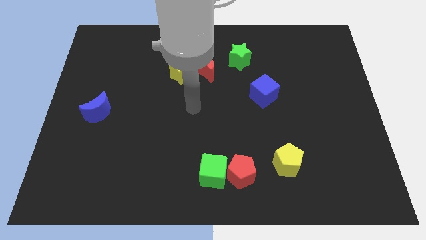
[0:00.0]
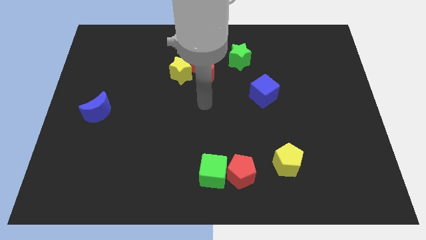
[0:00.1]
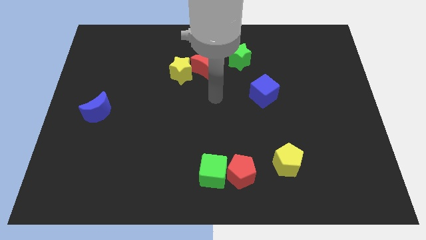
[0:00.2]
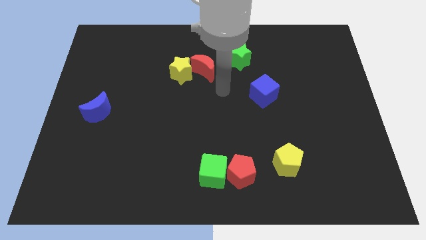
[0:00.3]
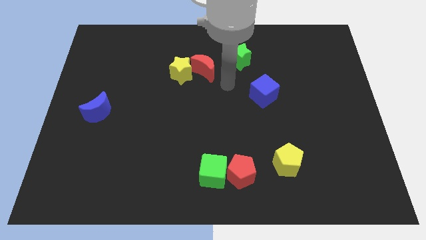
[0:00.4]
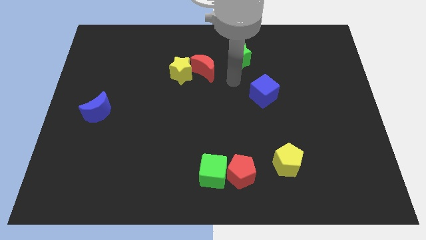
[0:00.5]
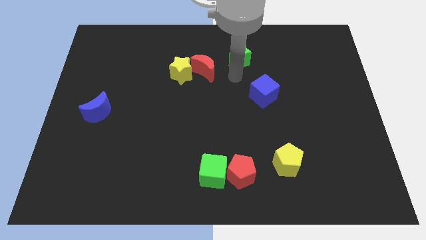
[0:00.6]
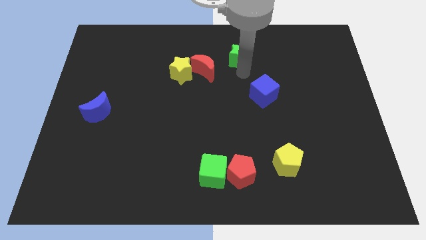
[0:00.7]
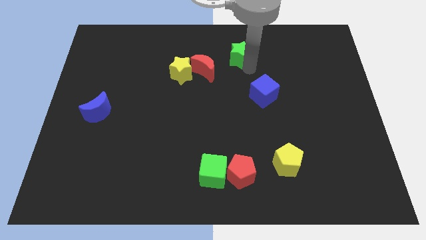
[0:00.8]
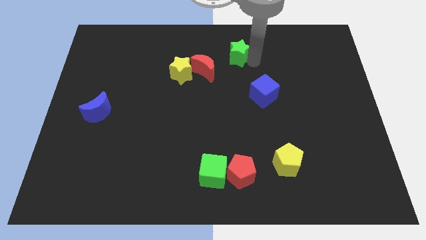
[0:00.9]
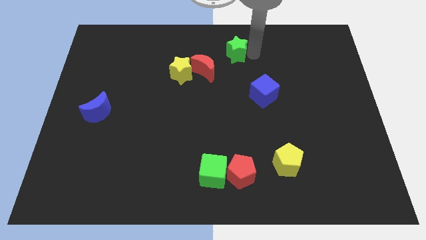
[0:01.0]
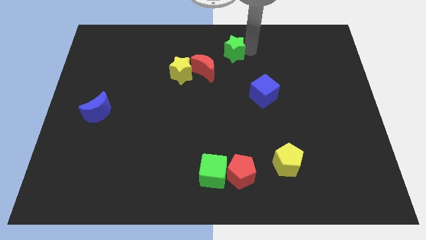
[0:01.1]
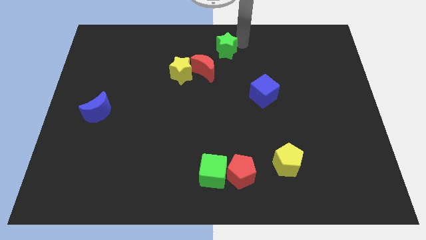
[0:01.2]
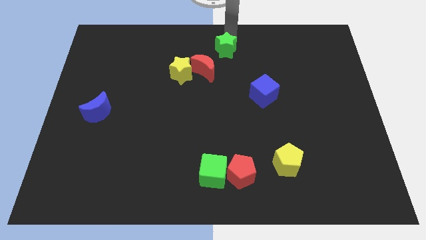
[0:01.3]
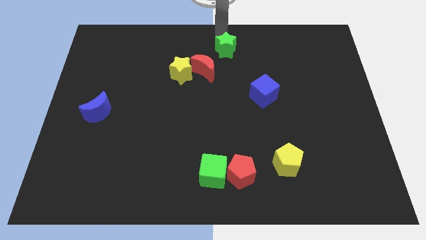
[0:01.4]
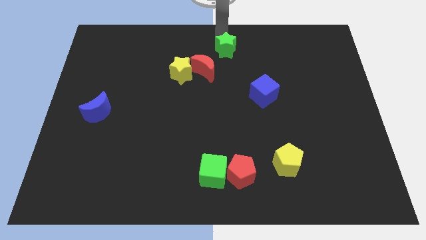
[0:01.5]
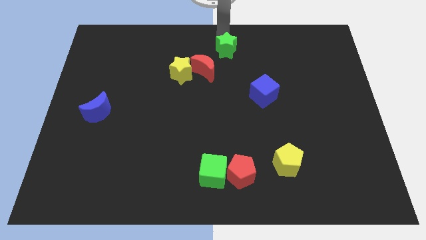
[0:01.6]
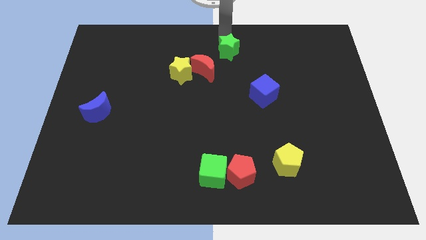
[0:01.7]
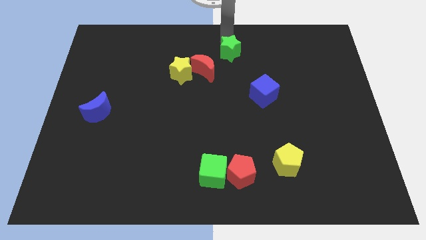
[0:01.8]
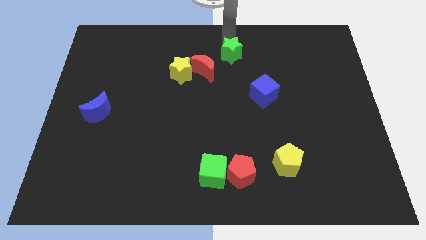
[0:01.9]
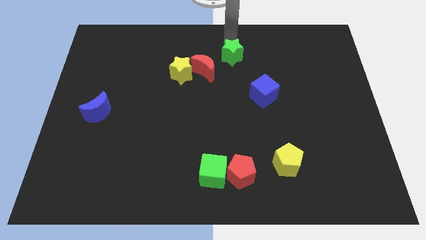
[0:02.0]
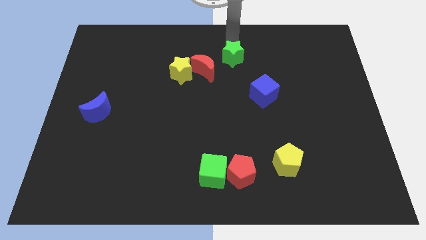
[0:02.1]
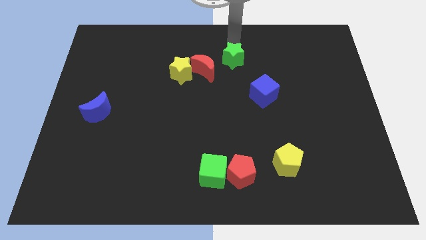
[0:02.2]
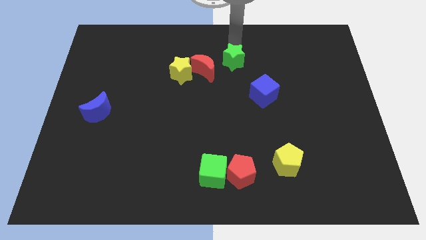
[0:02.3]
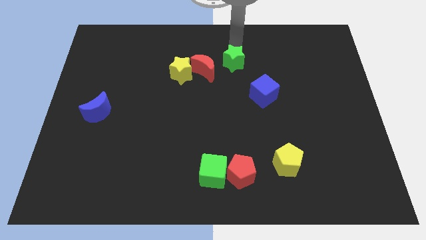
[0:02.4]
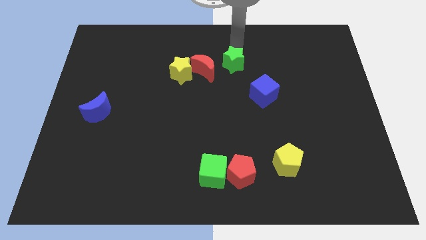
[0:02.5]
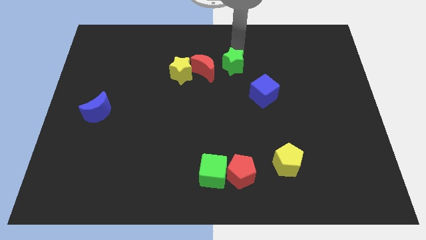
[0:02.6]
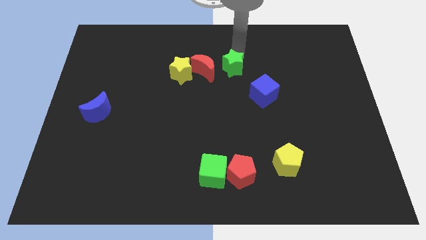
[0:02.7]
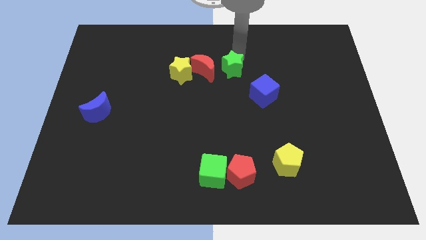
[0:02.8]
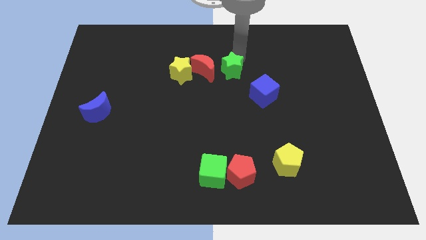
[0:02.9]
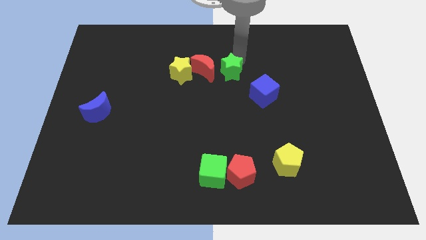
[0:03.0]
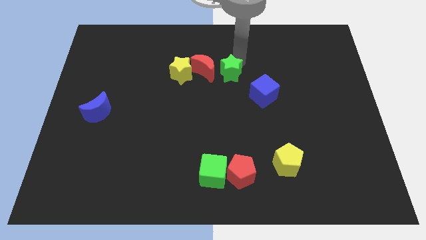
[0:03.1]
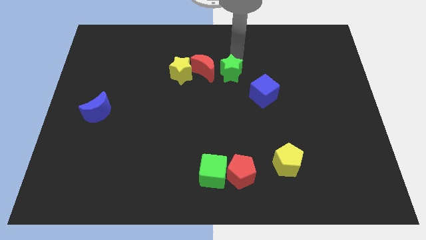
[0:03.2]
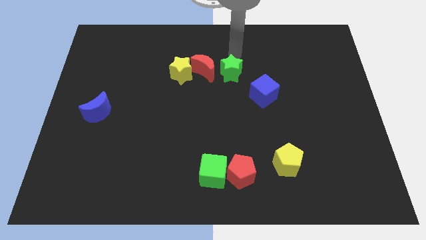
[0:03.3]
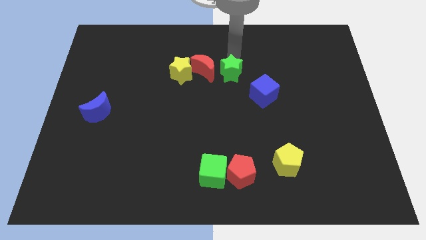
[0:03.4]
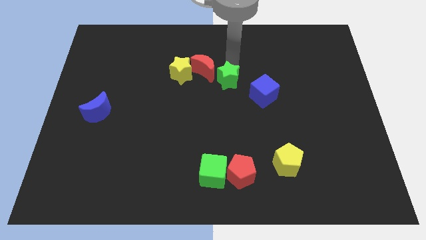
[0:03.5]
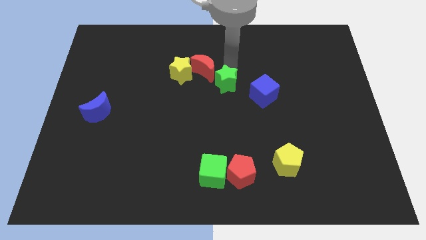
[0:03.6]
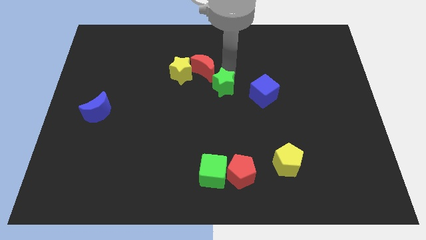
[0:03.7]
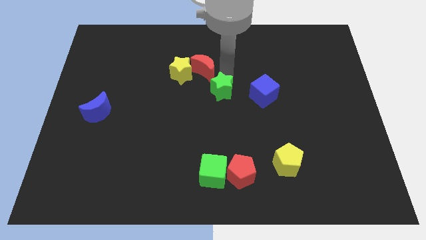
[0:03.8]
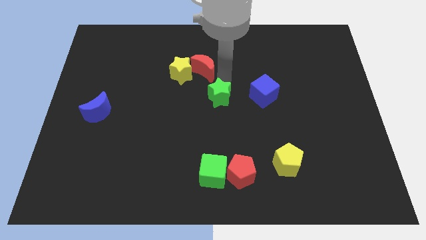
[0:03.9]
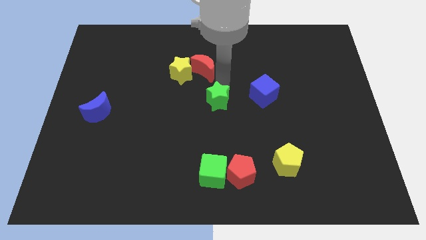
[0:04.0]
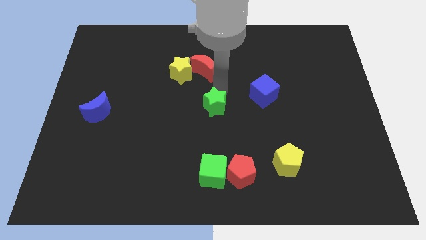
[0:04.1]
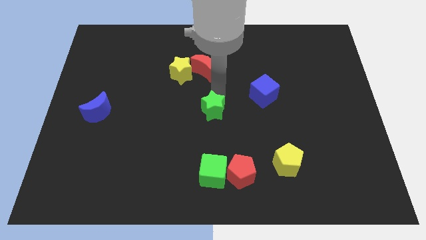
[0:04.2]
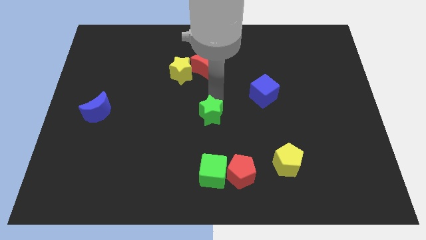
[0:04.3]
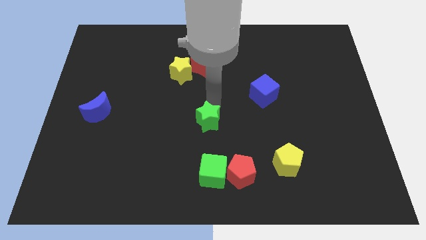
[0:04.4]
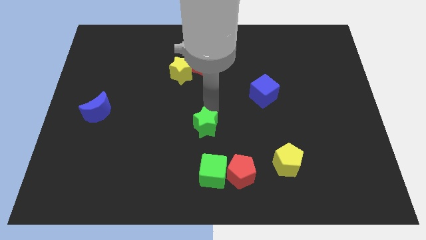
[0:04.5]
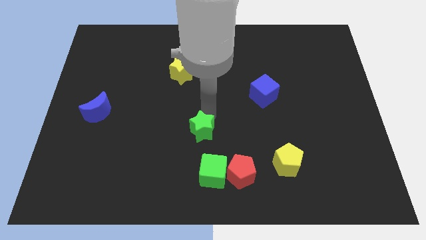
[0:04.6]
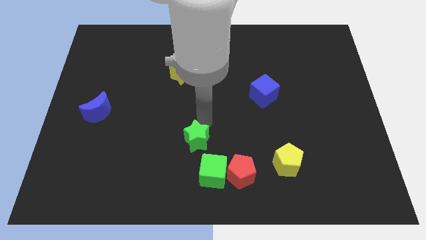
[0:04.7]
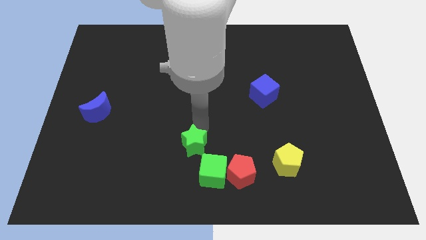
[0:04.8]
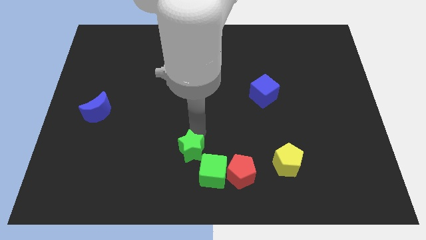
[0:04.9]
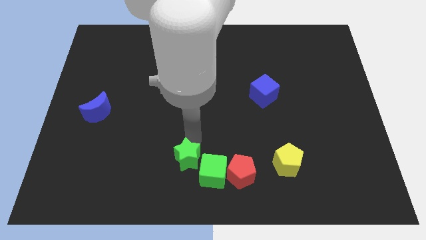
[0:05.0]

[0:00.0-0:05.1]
slide the green star to the bottom side
